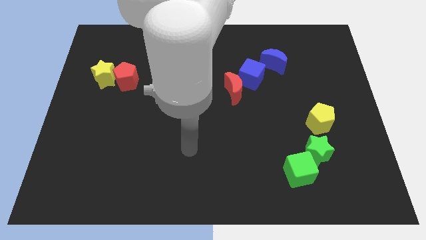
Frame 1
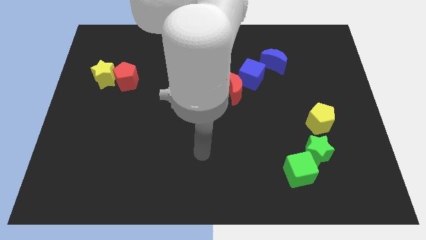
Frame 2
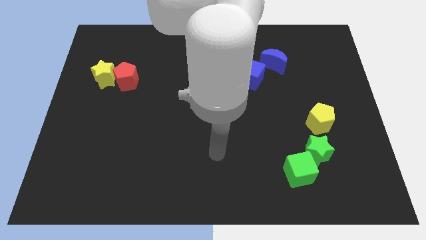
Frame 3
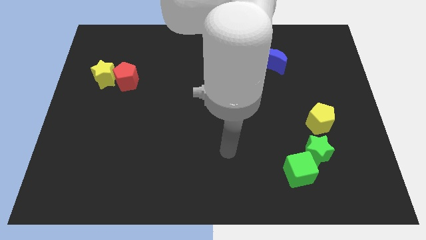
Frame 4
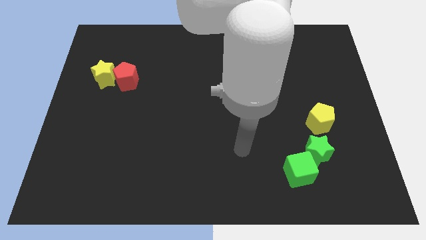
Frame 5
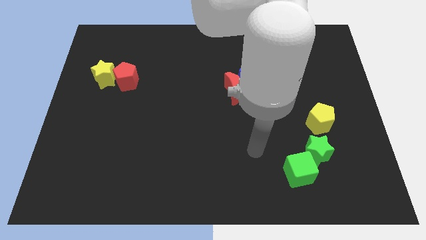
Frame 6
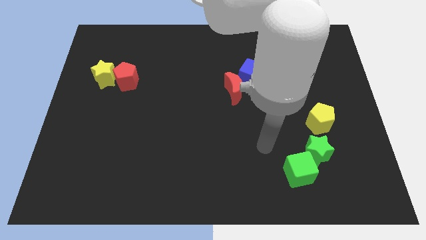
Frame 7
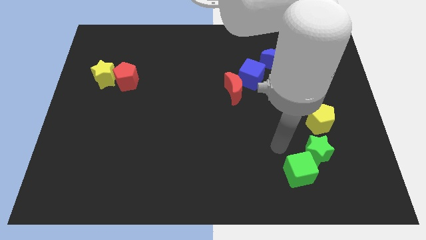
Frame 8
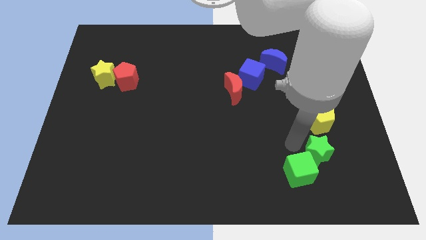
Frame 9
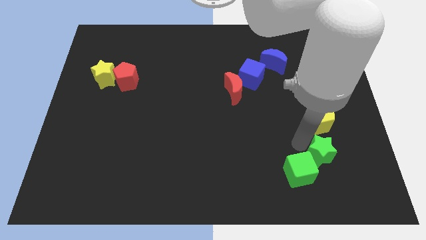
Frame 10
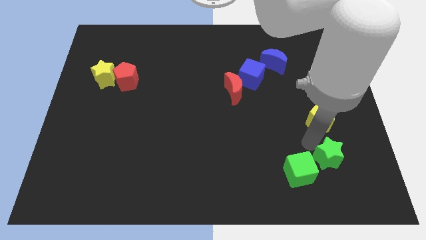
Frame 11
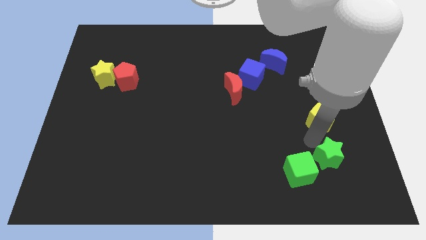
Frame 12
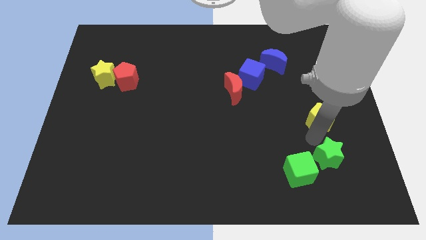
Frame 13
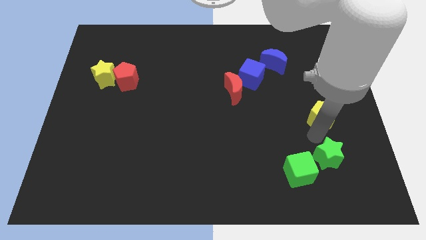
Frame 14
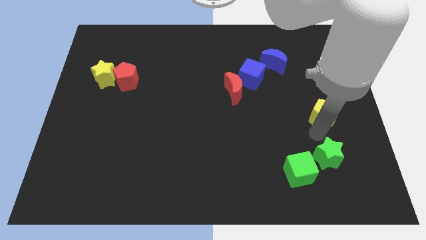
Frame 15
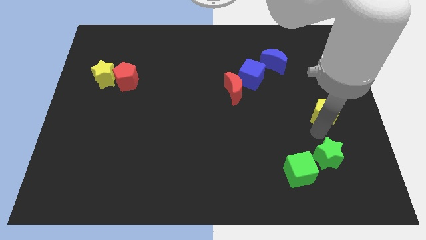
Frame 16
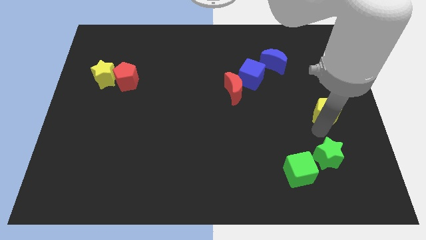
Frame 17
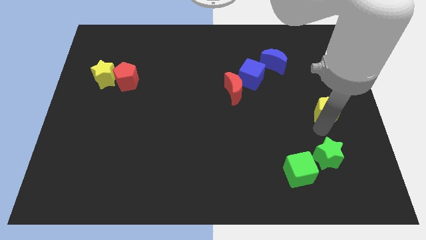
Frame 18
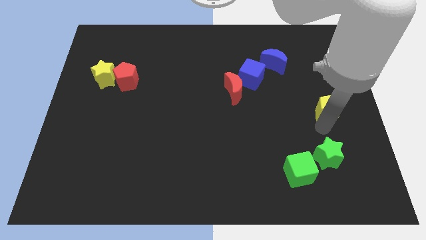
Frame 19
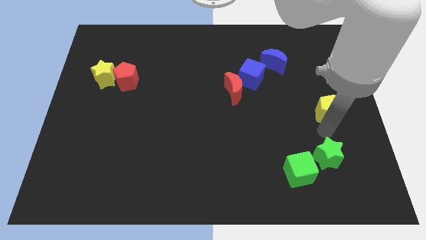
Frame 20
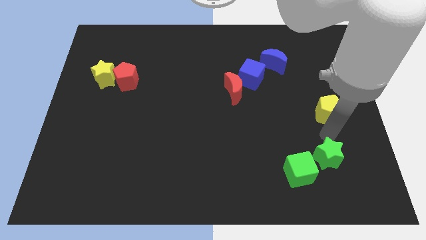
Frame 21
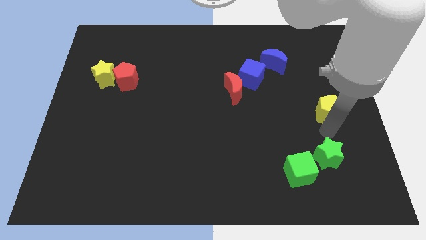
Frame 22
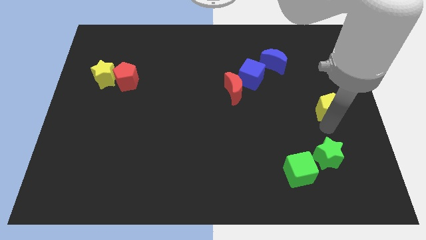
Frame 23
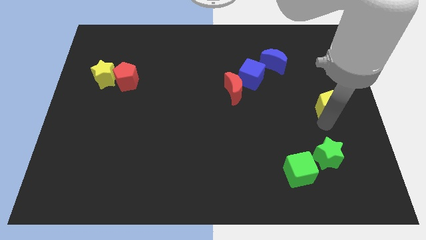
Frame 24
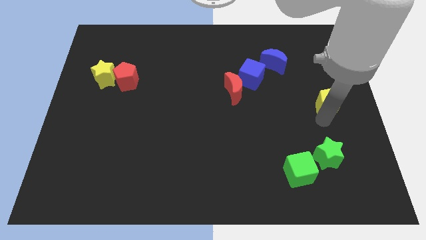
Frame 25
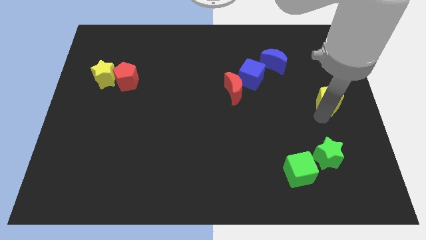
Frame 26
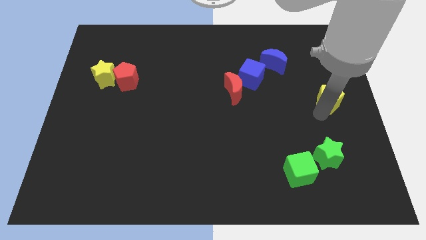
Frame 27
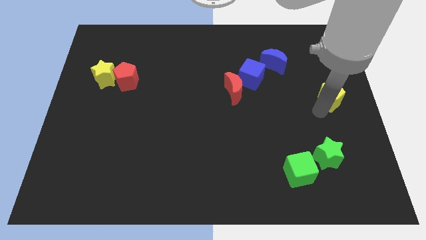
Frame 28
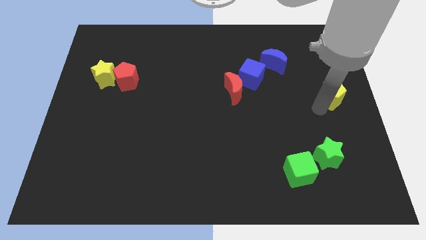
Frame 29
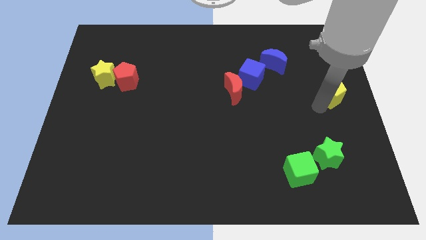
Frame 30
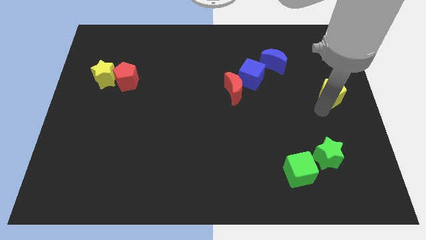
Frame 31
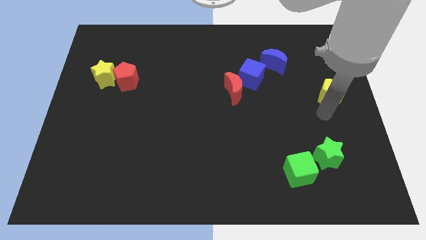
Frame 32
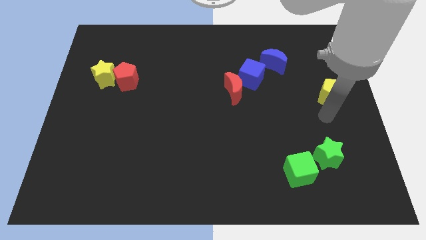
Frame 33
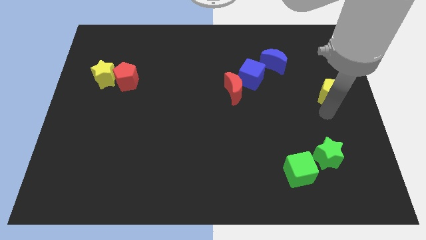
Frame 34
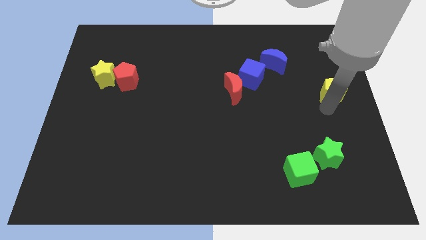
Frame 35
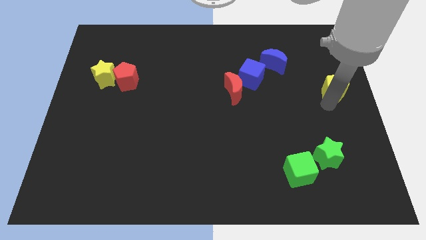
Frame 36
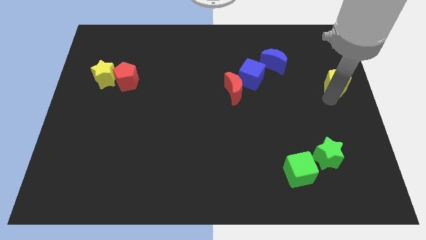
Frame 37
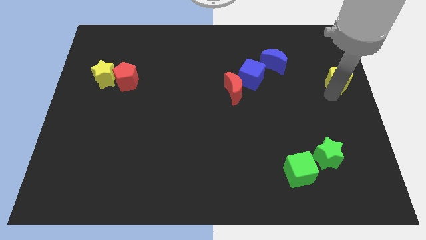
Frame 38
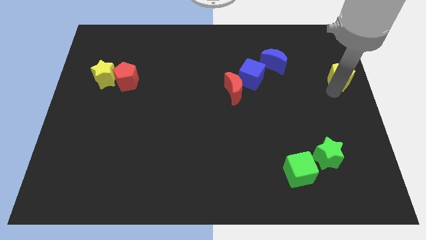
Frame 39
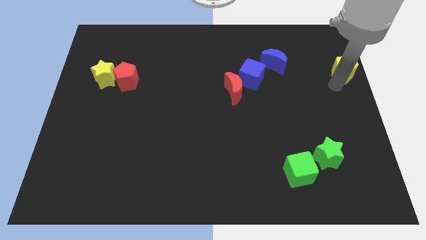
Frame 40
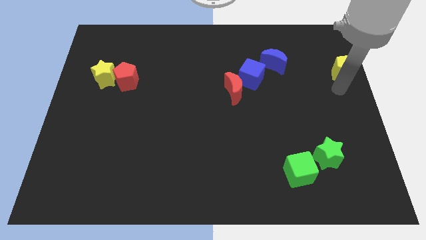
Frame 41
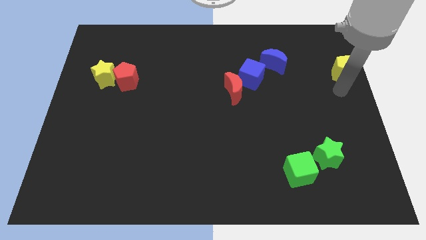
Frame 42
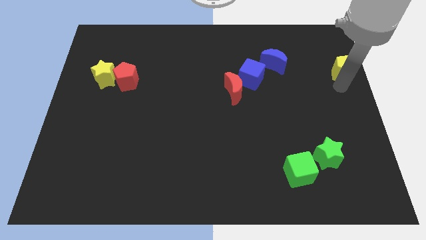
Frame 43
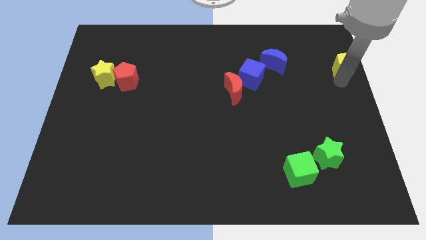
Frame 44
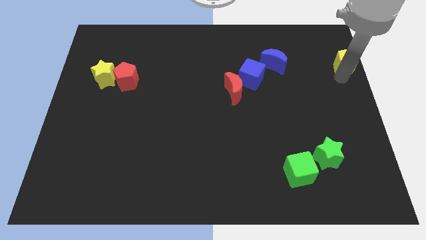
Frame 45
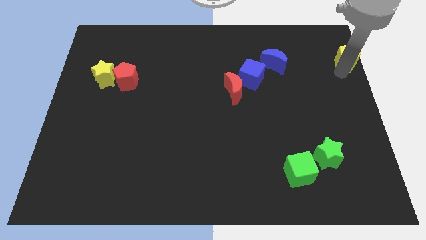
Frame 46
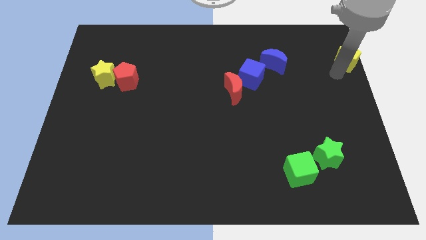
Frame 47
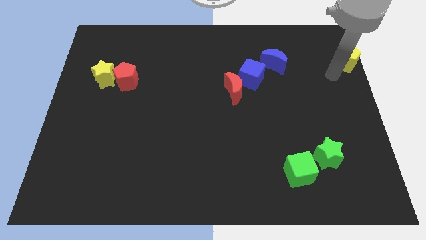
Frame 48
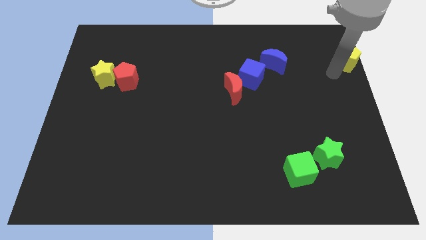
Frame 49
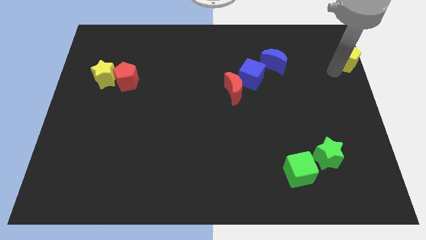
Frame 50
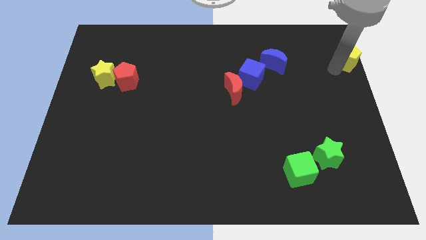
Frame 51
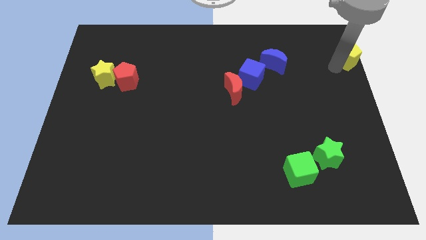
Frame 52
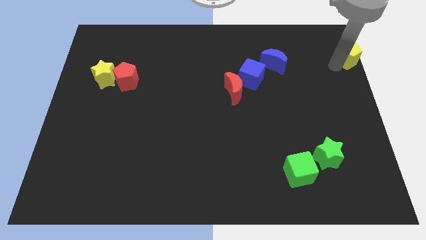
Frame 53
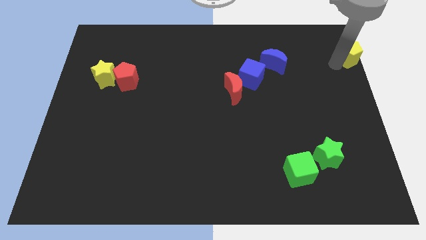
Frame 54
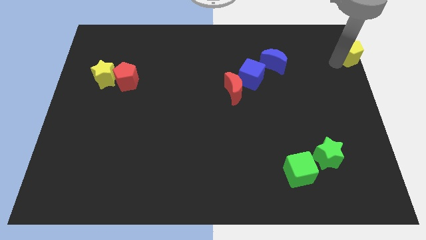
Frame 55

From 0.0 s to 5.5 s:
move the yellow pentagon to the upper right corner

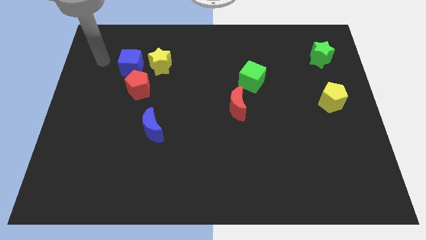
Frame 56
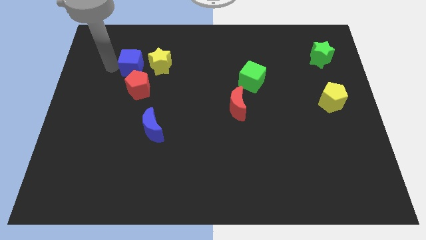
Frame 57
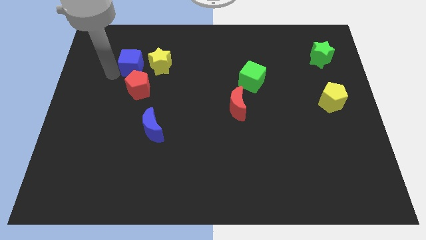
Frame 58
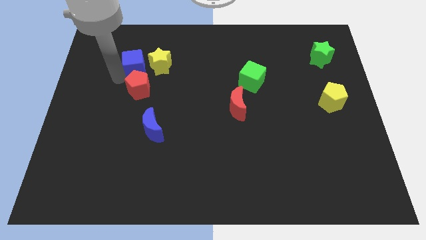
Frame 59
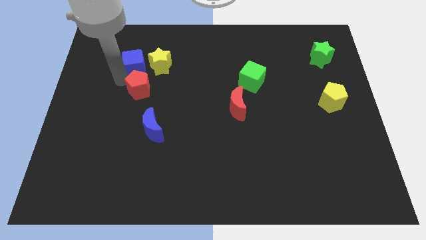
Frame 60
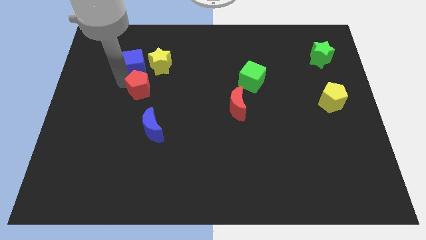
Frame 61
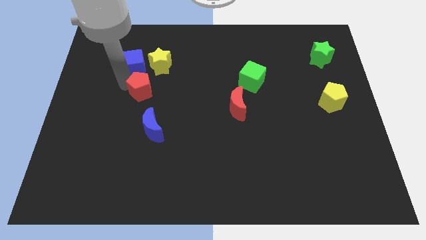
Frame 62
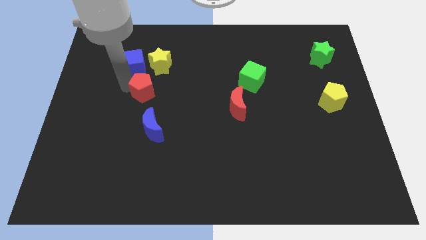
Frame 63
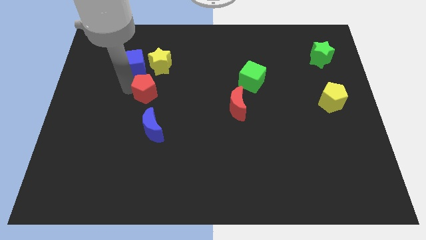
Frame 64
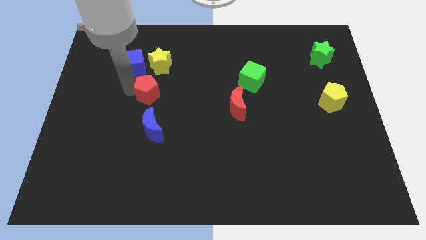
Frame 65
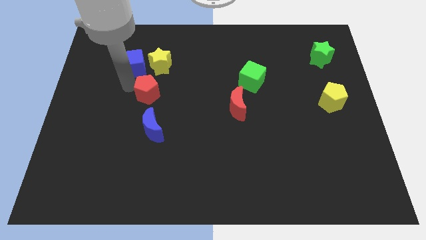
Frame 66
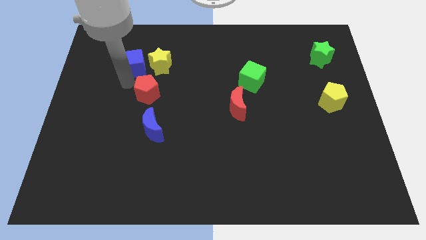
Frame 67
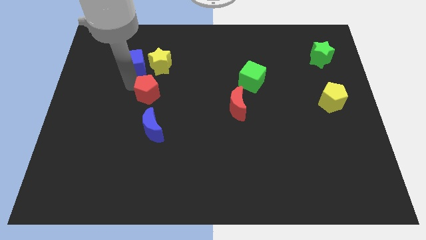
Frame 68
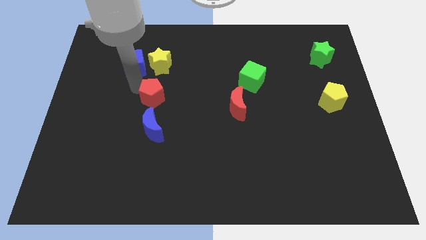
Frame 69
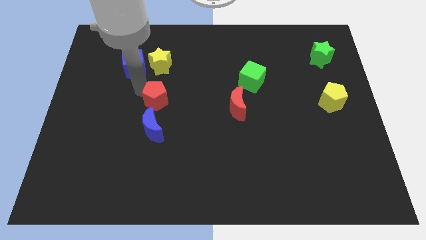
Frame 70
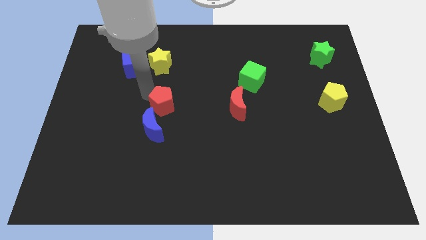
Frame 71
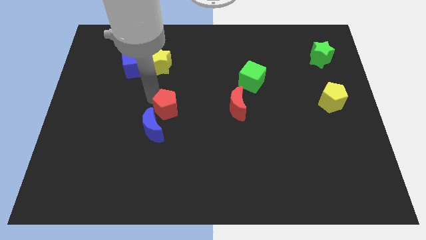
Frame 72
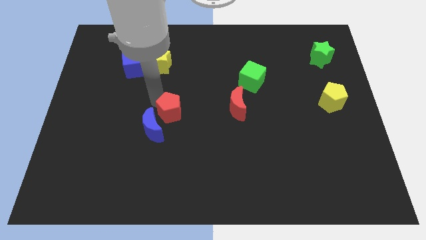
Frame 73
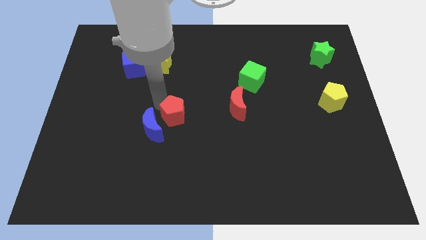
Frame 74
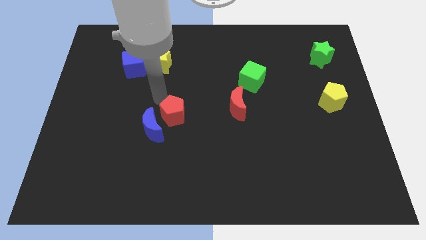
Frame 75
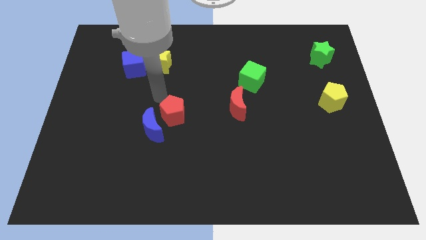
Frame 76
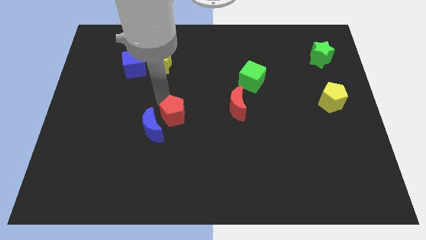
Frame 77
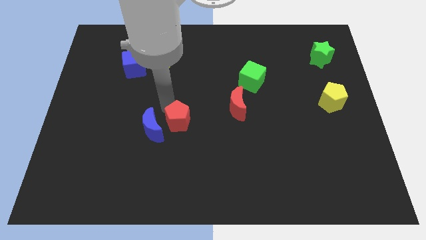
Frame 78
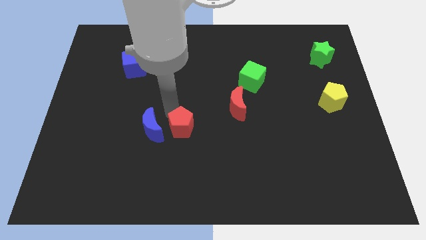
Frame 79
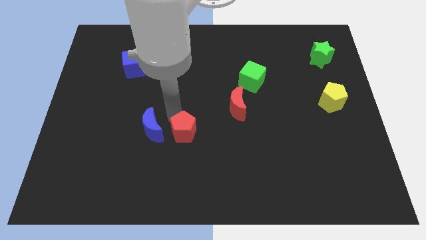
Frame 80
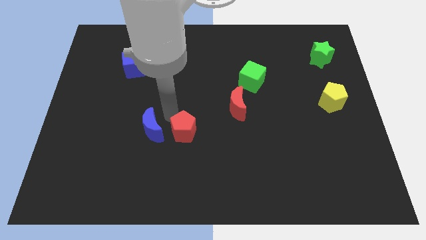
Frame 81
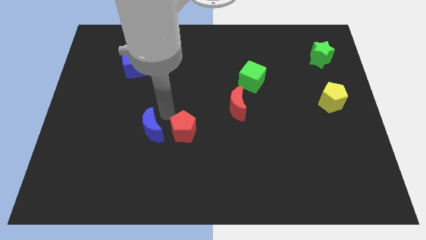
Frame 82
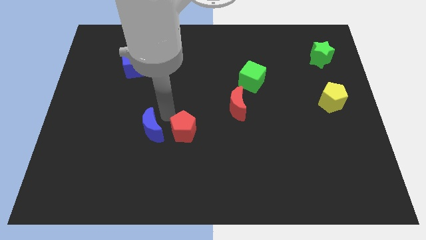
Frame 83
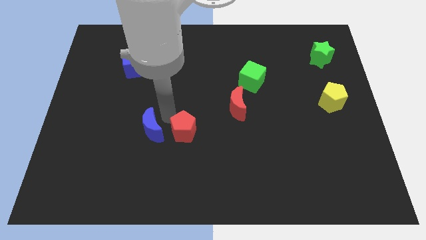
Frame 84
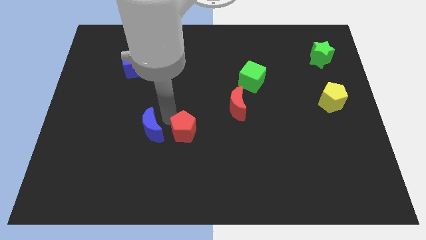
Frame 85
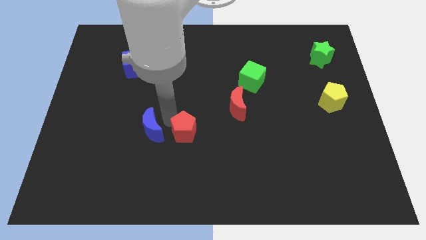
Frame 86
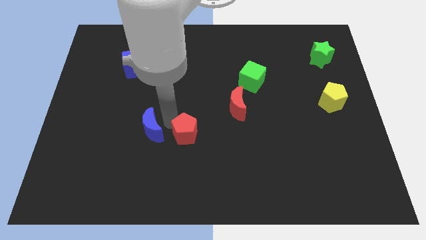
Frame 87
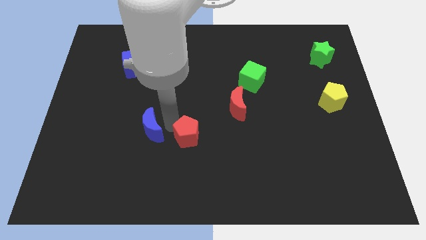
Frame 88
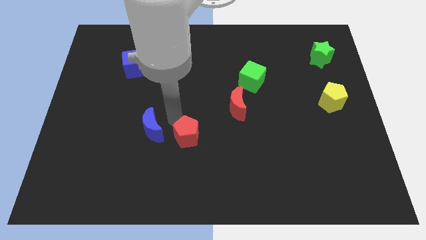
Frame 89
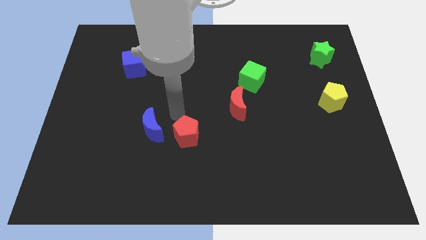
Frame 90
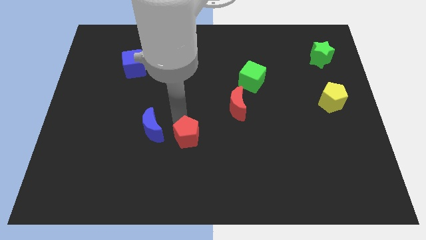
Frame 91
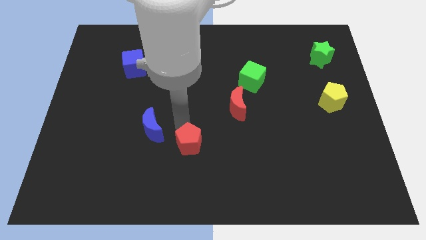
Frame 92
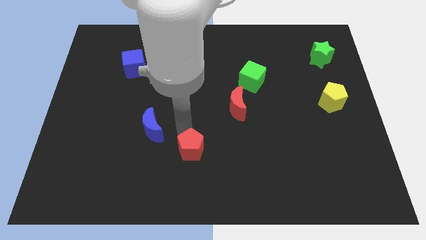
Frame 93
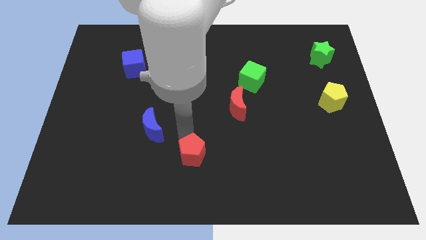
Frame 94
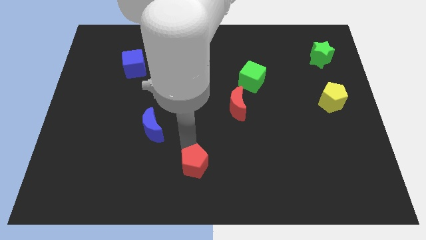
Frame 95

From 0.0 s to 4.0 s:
put the red pentagon to the bottom side
